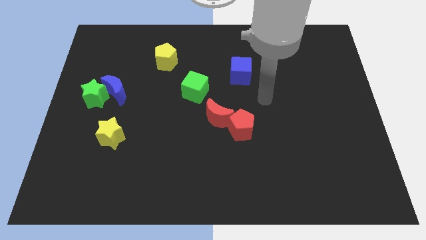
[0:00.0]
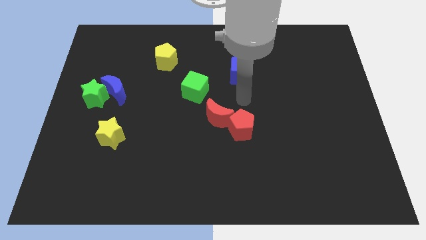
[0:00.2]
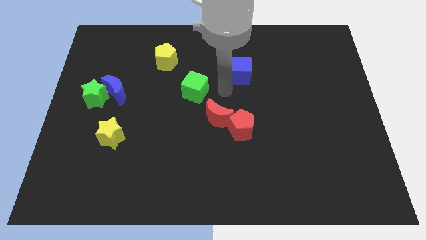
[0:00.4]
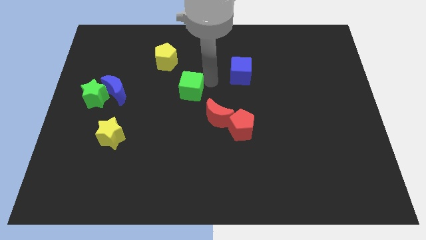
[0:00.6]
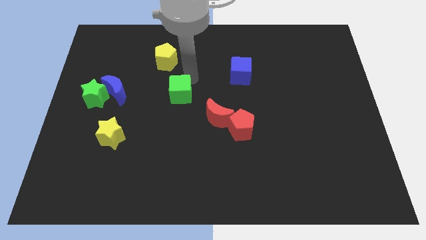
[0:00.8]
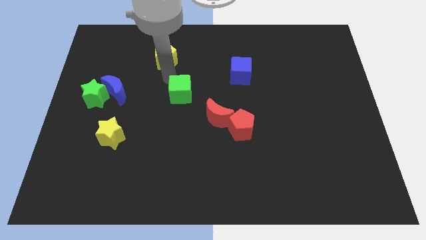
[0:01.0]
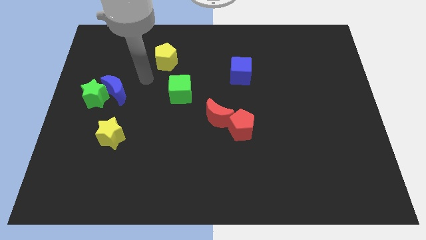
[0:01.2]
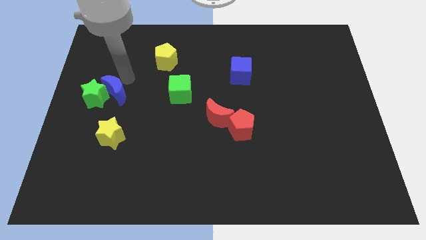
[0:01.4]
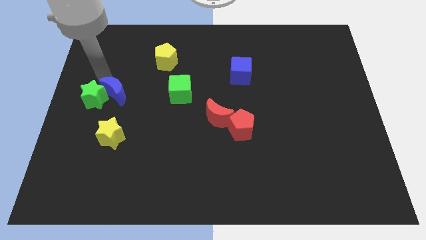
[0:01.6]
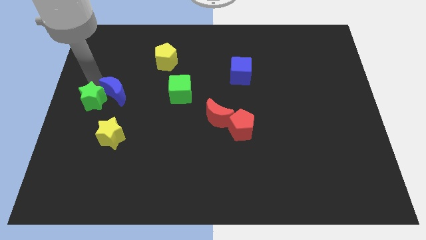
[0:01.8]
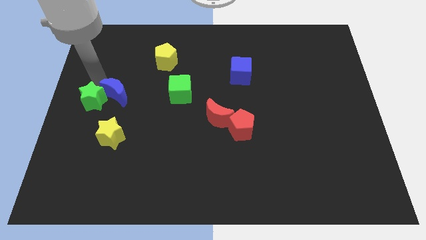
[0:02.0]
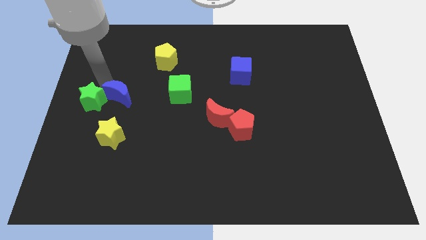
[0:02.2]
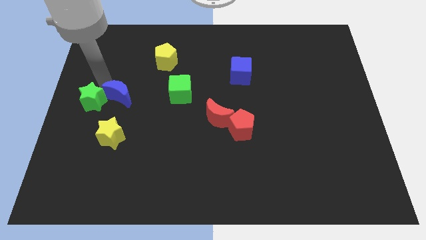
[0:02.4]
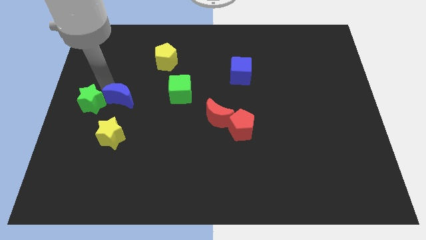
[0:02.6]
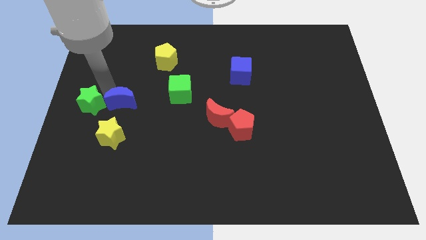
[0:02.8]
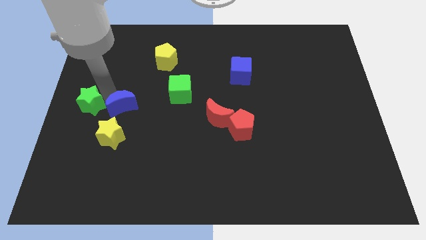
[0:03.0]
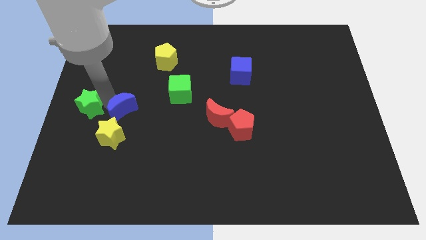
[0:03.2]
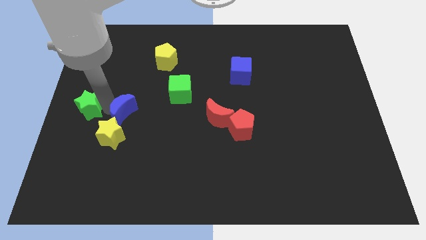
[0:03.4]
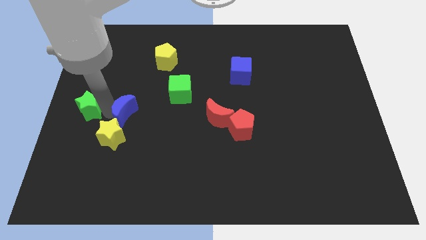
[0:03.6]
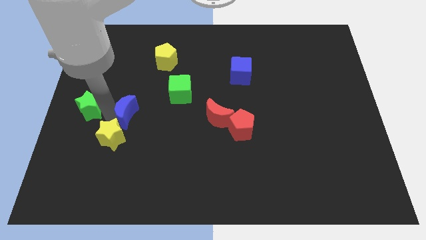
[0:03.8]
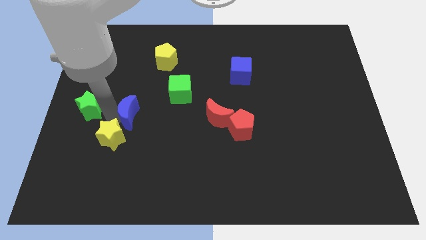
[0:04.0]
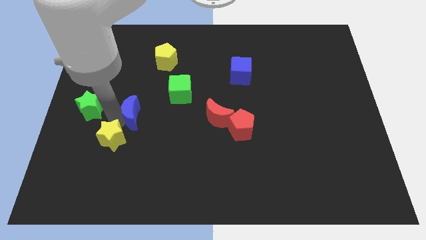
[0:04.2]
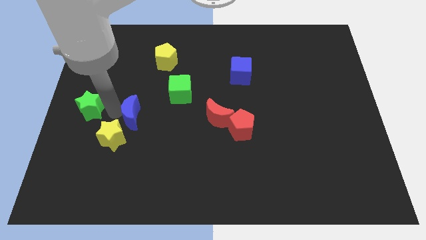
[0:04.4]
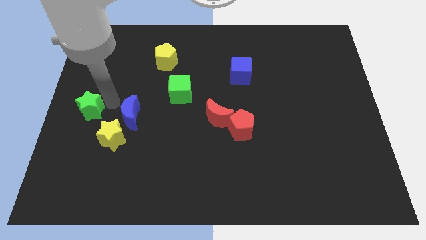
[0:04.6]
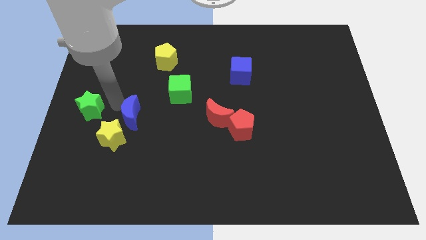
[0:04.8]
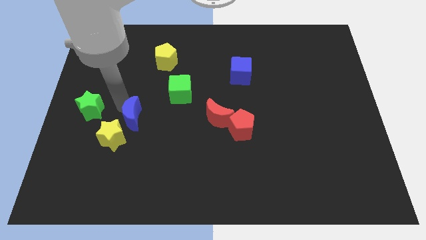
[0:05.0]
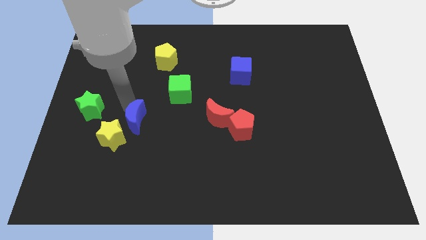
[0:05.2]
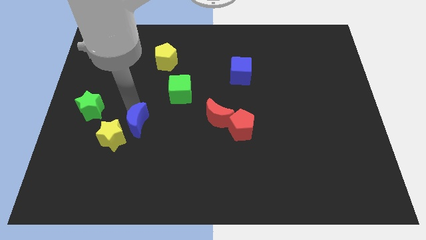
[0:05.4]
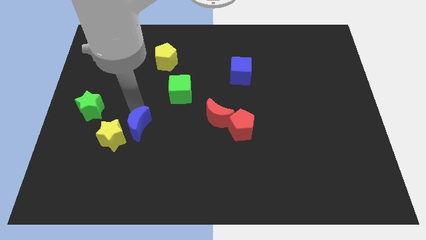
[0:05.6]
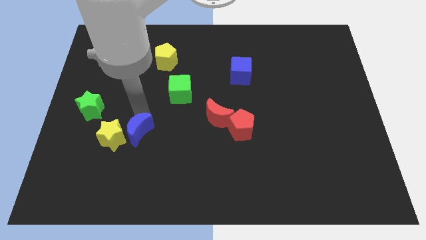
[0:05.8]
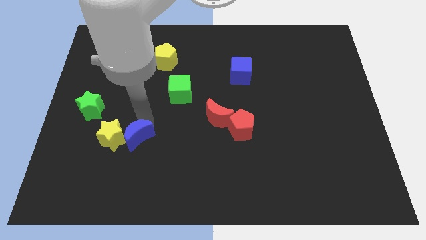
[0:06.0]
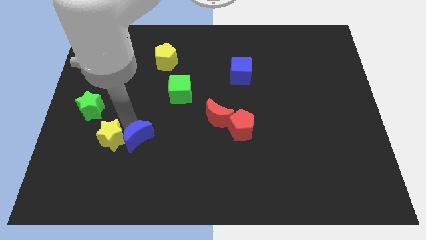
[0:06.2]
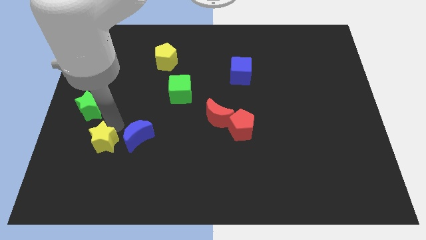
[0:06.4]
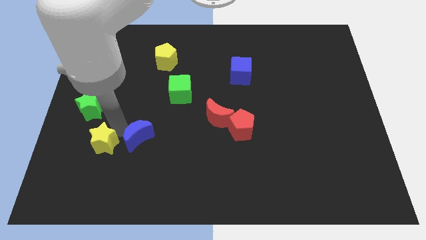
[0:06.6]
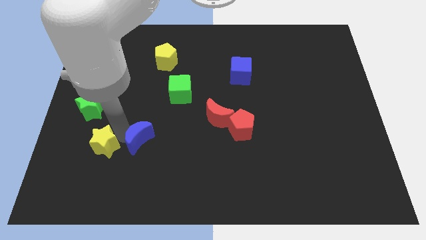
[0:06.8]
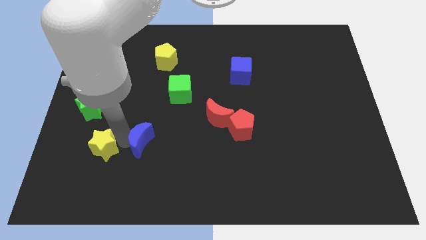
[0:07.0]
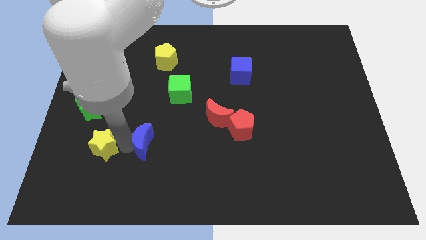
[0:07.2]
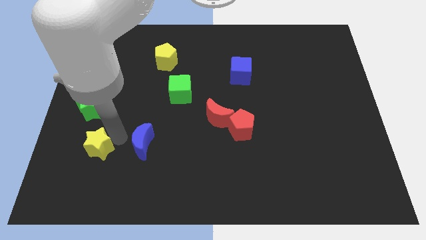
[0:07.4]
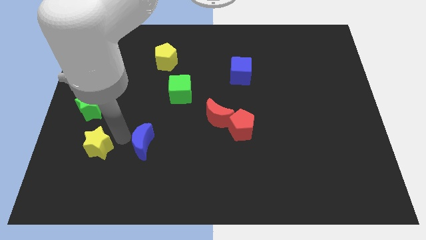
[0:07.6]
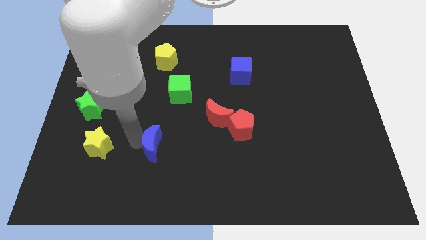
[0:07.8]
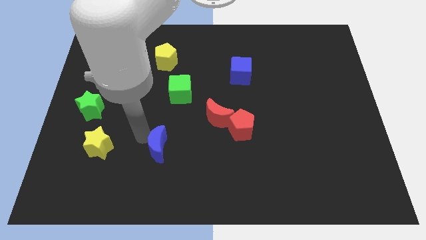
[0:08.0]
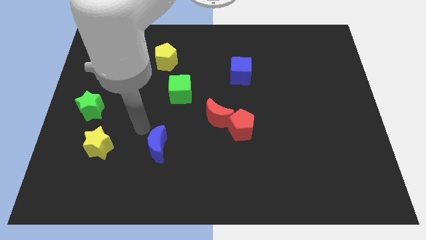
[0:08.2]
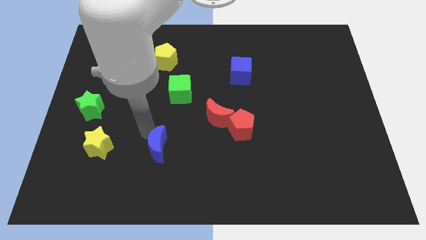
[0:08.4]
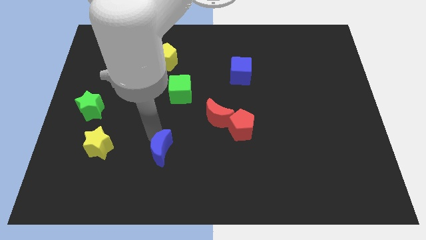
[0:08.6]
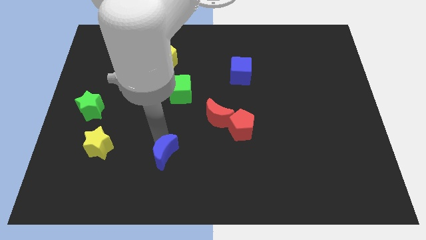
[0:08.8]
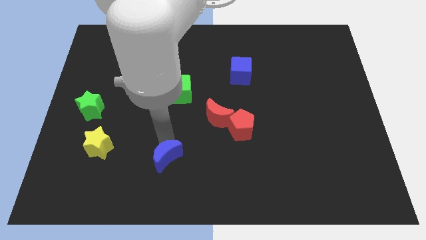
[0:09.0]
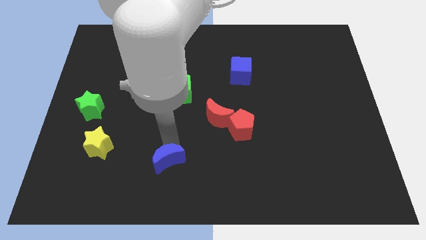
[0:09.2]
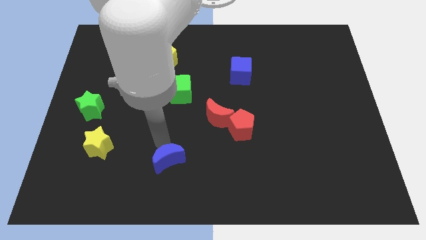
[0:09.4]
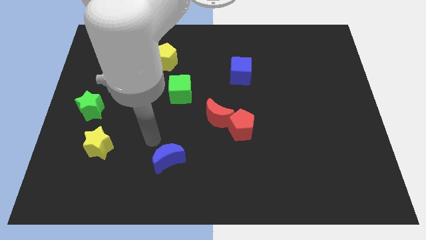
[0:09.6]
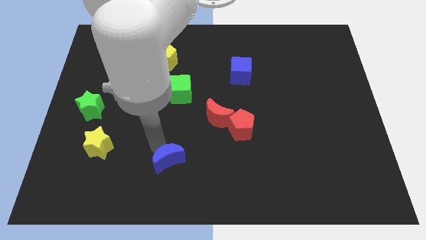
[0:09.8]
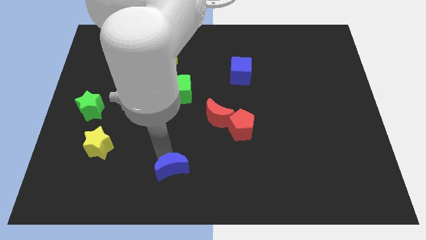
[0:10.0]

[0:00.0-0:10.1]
push the blue moon to the bottom side

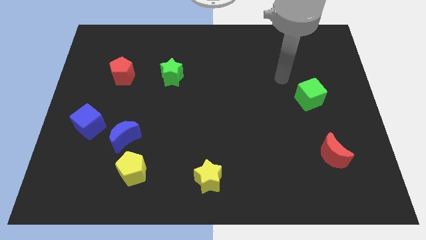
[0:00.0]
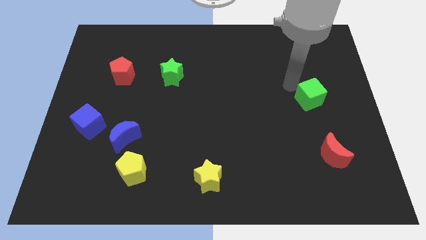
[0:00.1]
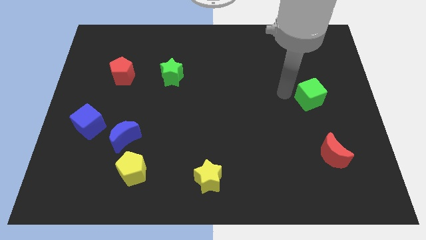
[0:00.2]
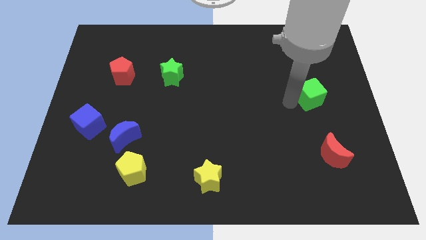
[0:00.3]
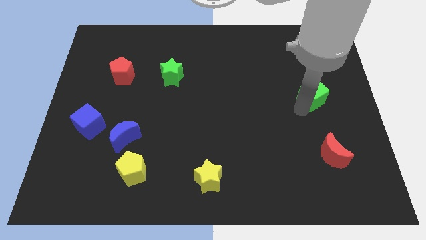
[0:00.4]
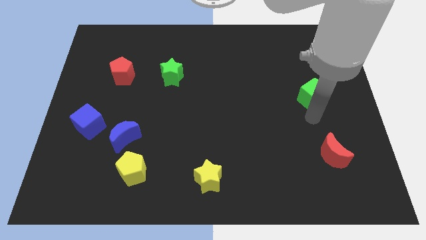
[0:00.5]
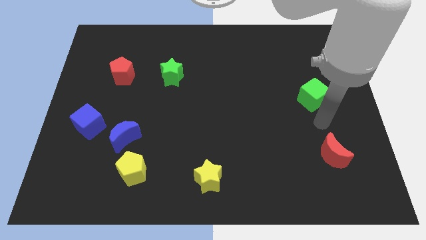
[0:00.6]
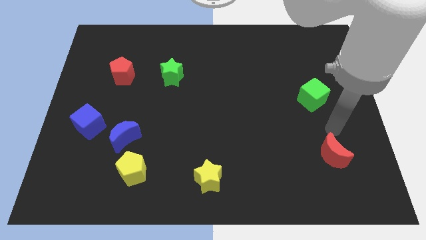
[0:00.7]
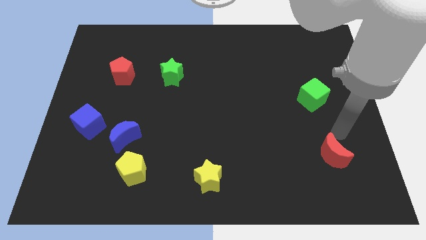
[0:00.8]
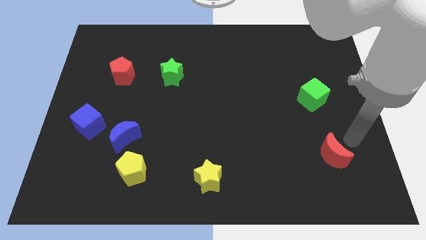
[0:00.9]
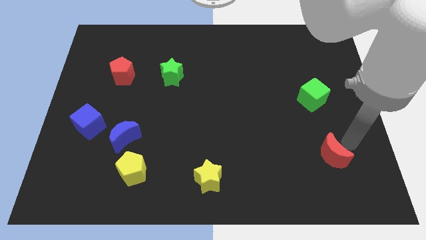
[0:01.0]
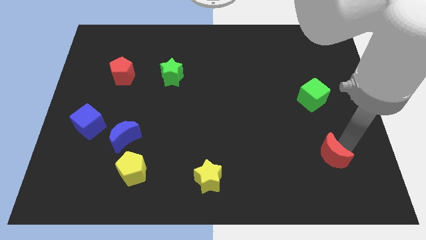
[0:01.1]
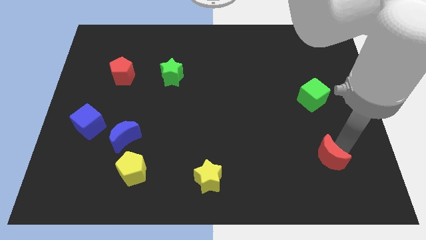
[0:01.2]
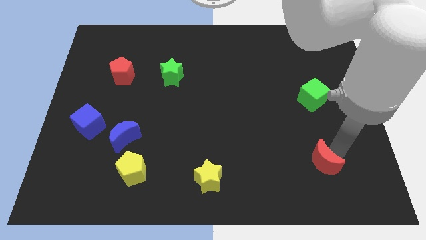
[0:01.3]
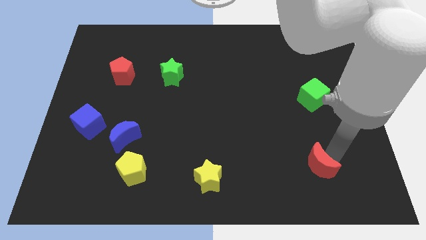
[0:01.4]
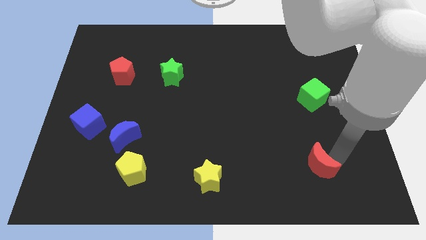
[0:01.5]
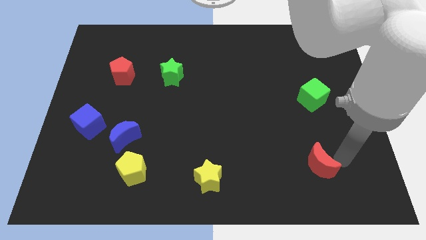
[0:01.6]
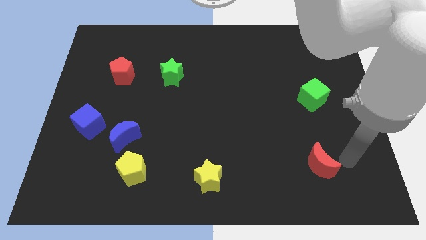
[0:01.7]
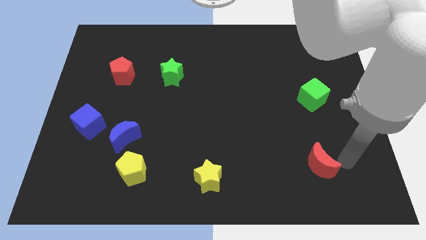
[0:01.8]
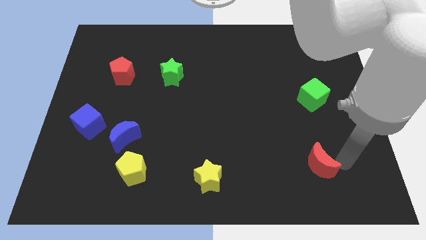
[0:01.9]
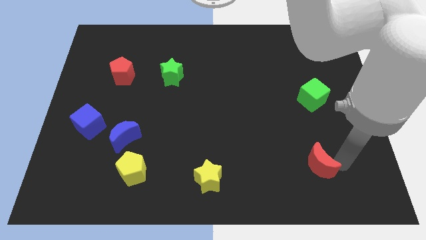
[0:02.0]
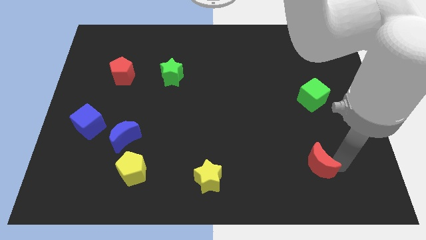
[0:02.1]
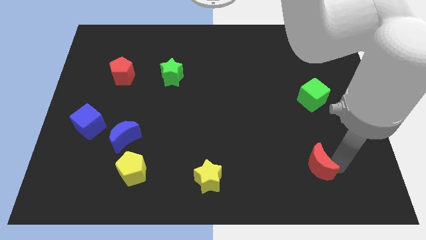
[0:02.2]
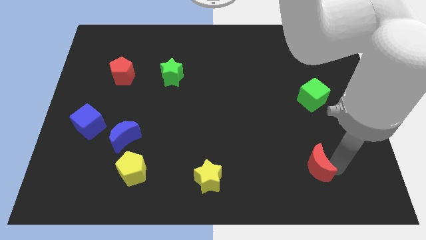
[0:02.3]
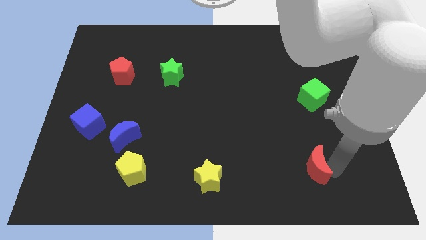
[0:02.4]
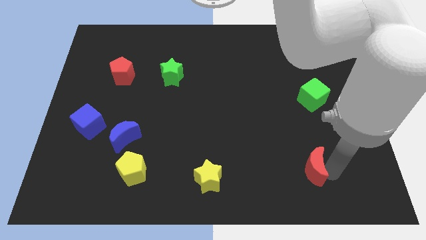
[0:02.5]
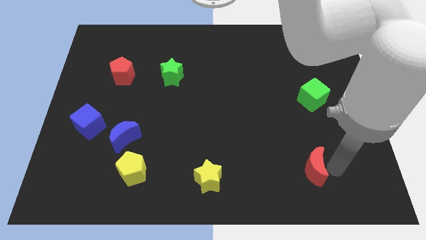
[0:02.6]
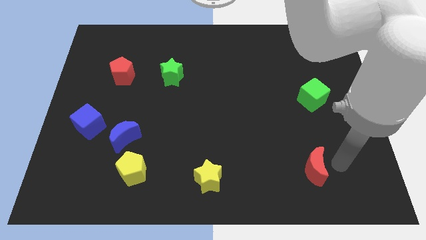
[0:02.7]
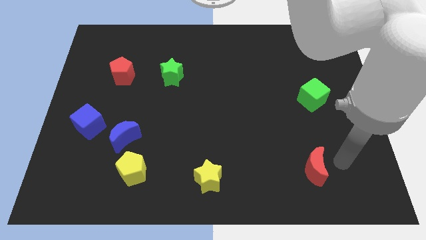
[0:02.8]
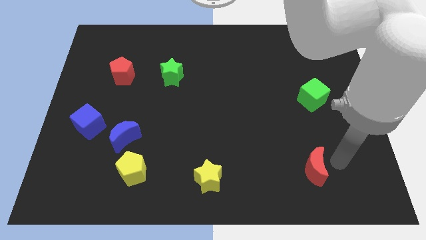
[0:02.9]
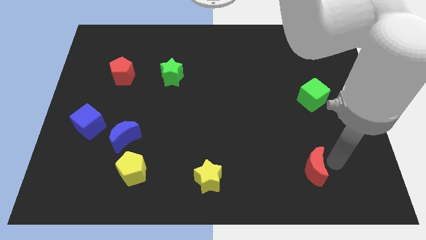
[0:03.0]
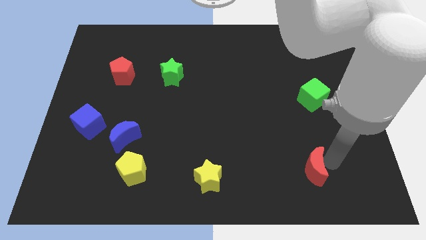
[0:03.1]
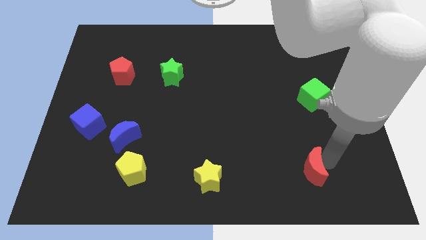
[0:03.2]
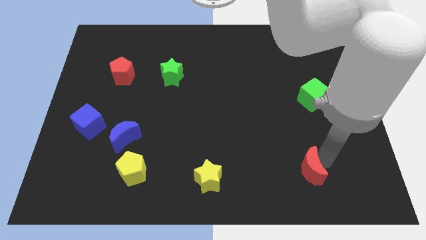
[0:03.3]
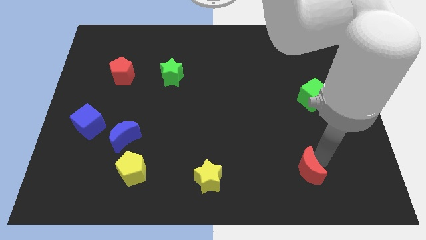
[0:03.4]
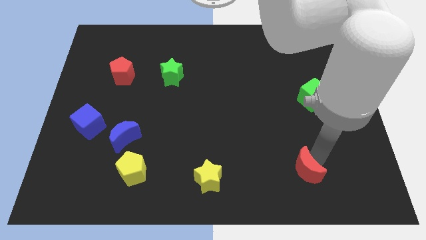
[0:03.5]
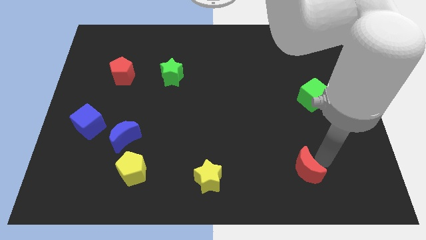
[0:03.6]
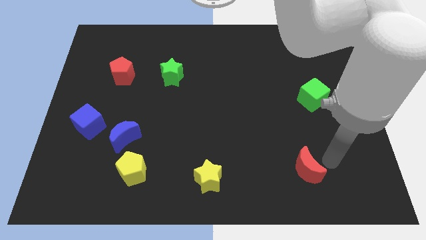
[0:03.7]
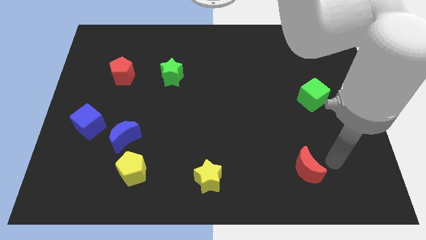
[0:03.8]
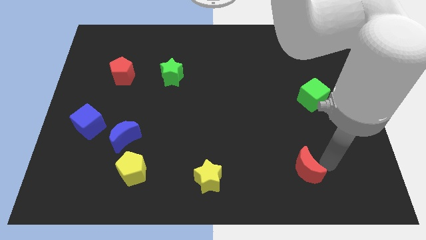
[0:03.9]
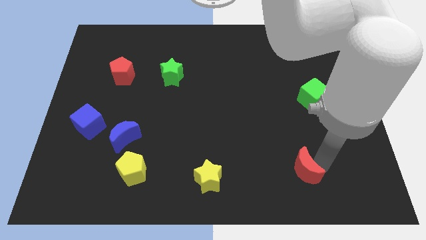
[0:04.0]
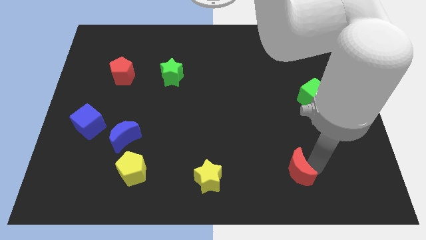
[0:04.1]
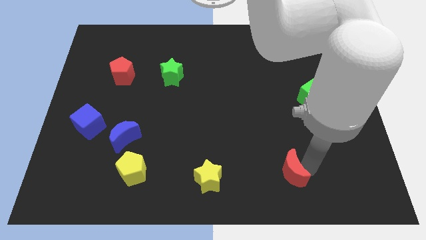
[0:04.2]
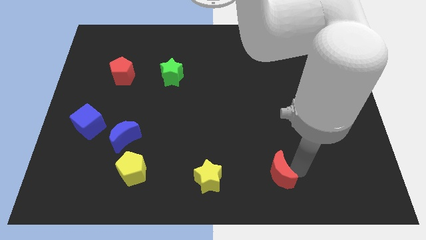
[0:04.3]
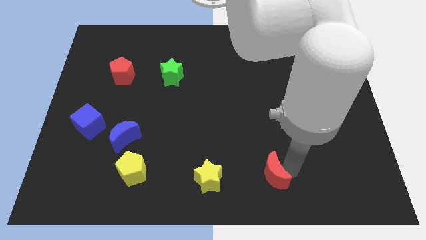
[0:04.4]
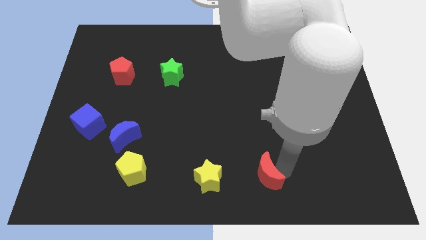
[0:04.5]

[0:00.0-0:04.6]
slide the red moon to the bottom side
